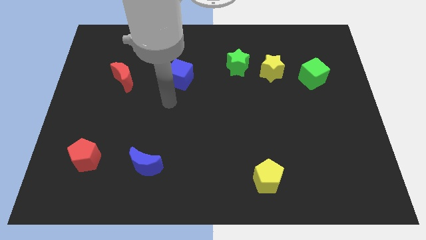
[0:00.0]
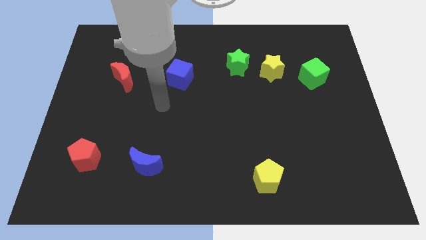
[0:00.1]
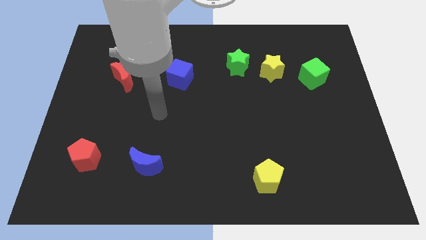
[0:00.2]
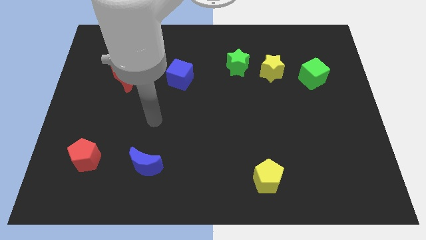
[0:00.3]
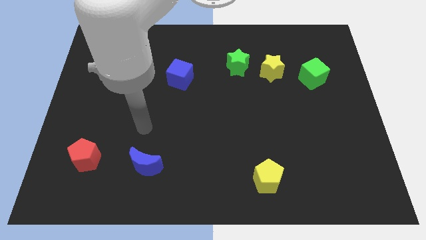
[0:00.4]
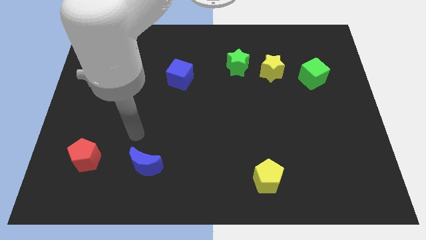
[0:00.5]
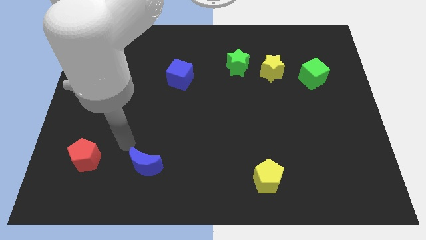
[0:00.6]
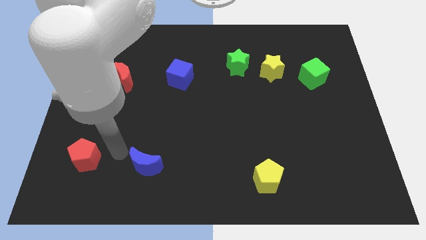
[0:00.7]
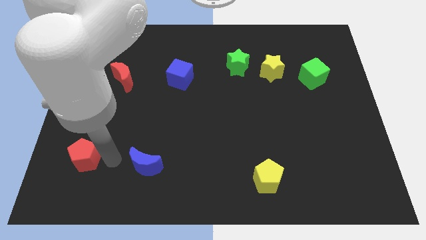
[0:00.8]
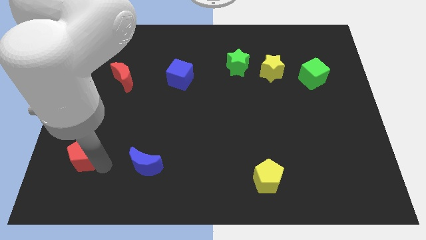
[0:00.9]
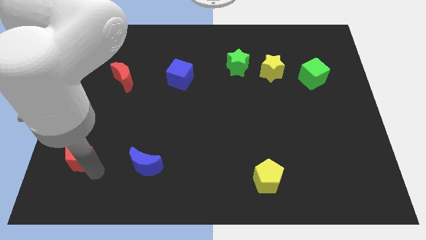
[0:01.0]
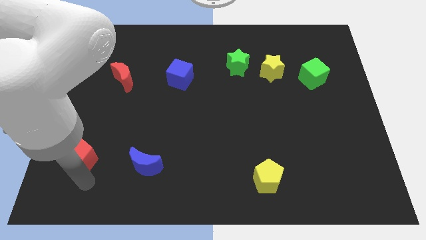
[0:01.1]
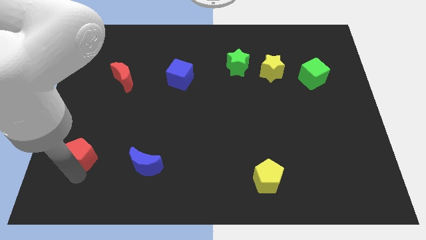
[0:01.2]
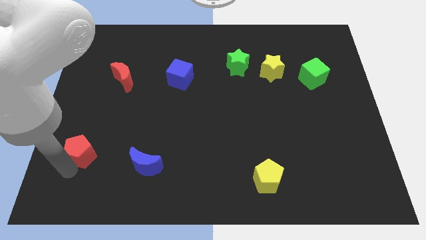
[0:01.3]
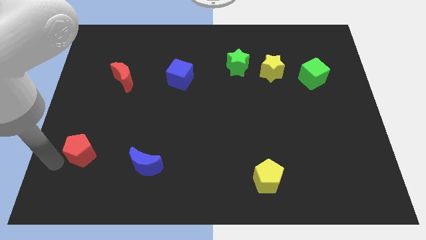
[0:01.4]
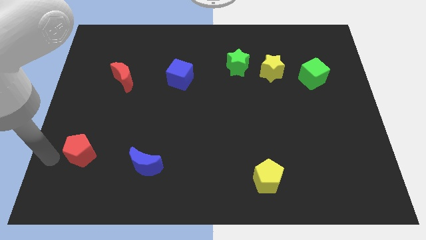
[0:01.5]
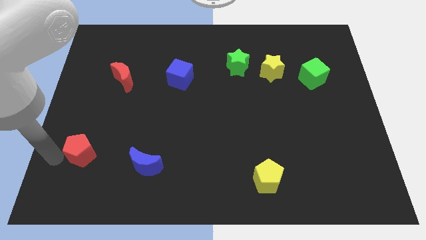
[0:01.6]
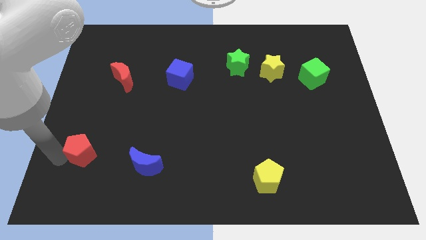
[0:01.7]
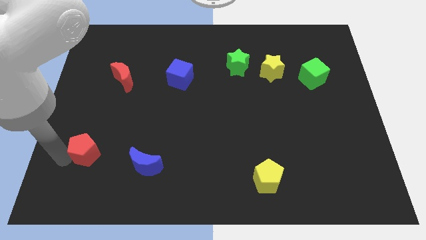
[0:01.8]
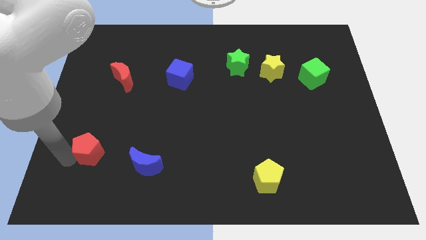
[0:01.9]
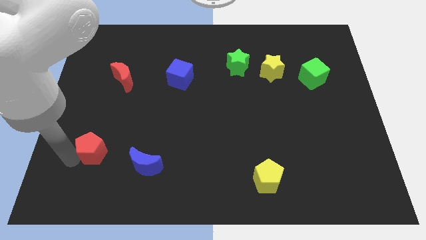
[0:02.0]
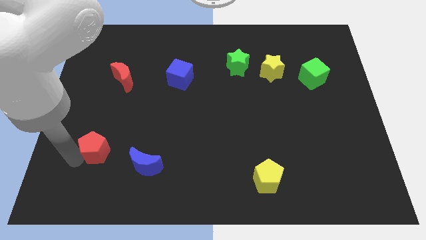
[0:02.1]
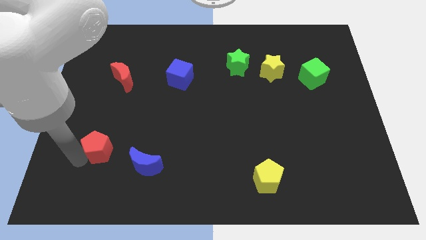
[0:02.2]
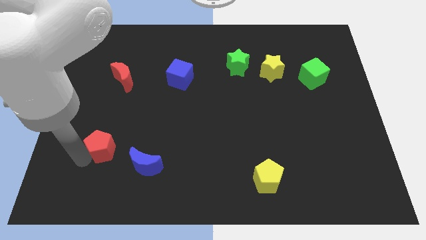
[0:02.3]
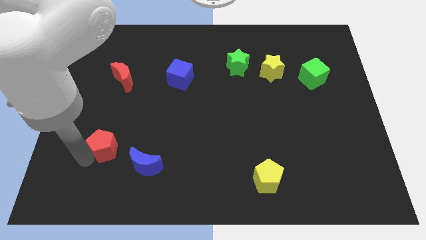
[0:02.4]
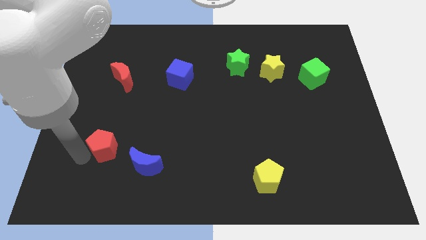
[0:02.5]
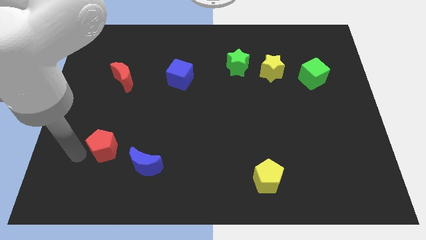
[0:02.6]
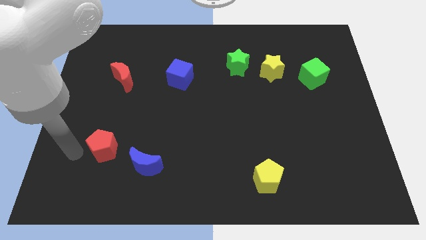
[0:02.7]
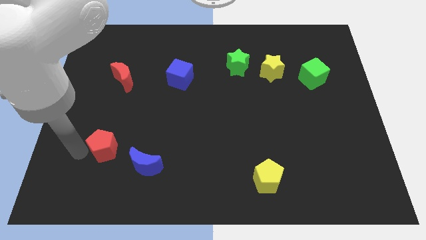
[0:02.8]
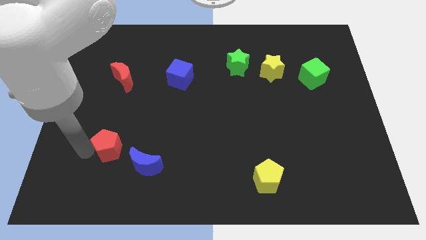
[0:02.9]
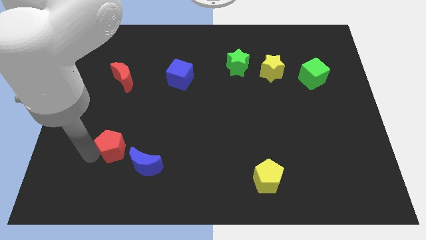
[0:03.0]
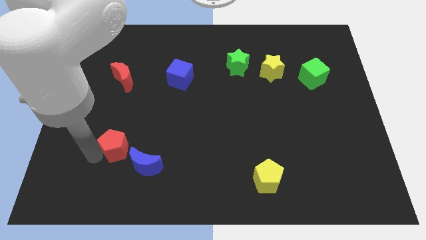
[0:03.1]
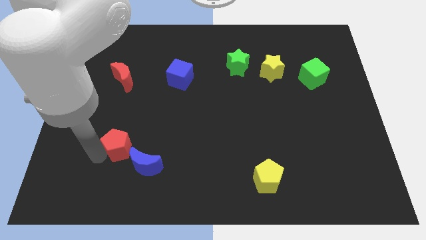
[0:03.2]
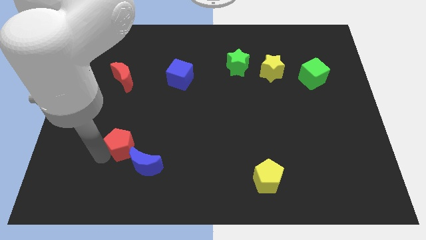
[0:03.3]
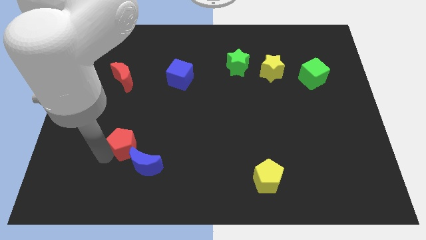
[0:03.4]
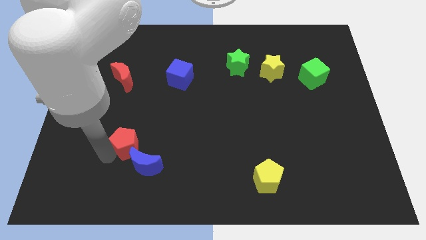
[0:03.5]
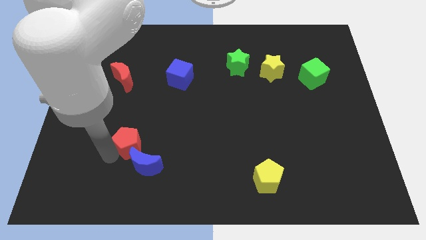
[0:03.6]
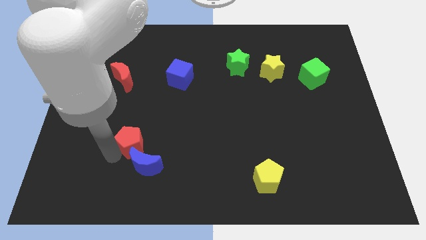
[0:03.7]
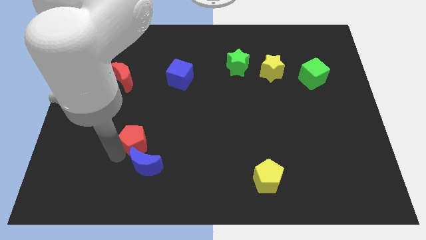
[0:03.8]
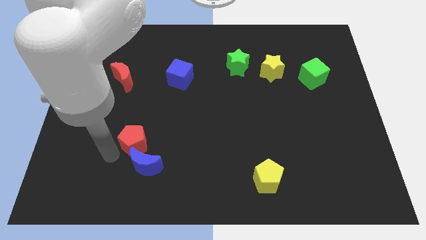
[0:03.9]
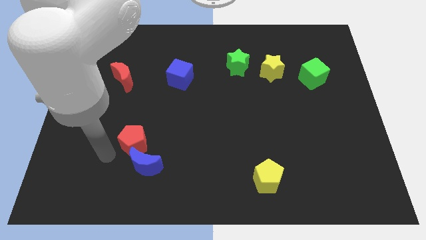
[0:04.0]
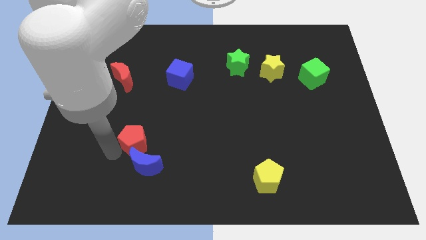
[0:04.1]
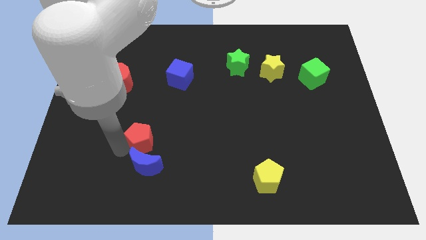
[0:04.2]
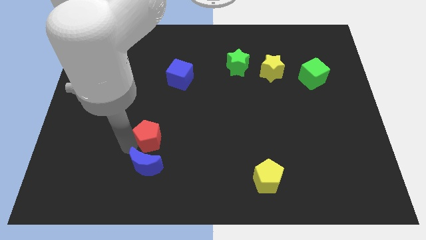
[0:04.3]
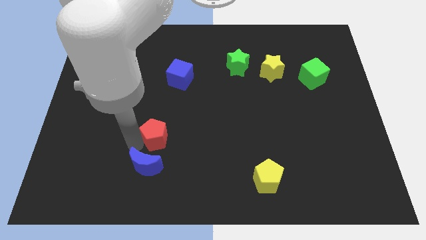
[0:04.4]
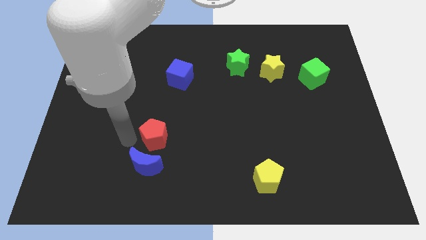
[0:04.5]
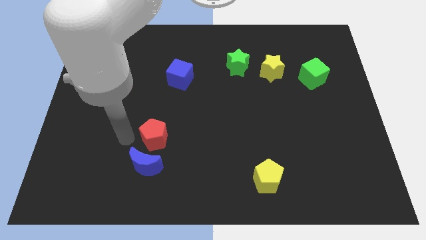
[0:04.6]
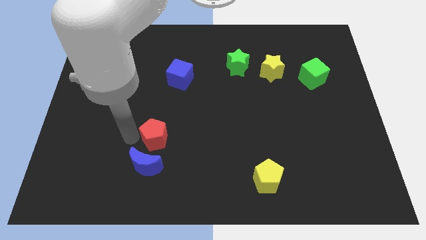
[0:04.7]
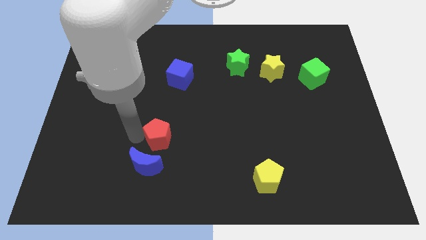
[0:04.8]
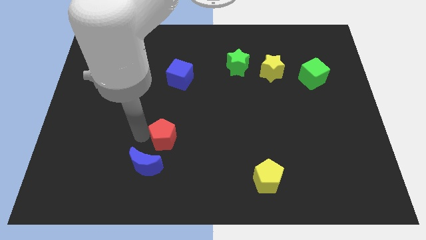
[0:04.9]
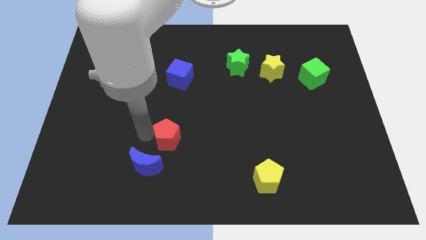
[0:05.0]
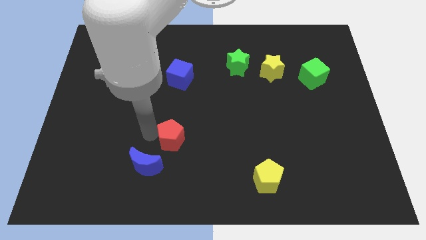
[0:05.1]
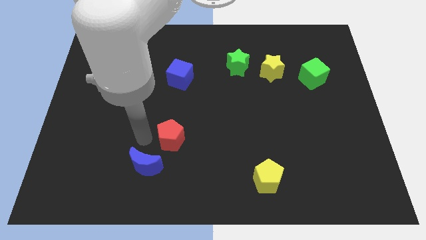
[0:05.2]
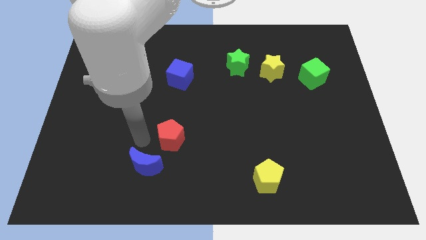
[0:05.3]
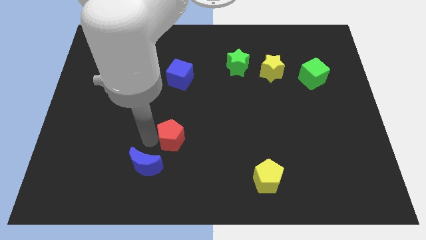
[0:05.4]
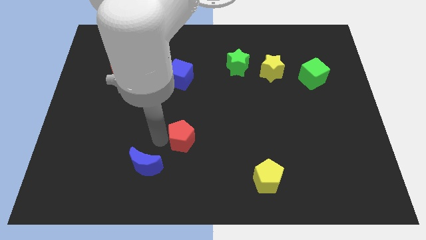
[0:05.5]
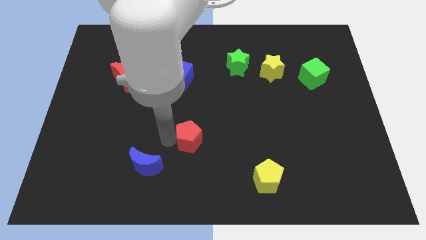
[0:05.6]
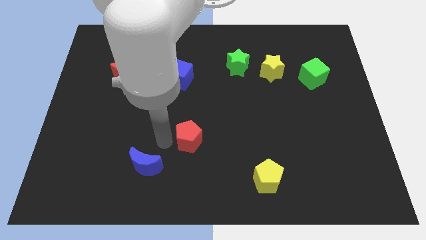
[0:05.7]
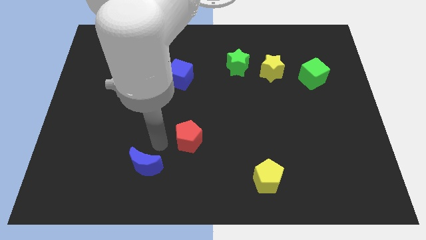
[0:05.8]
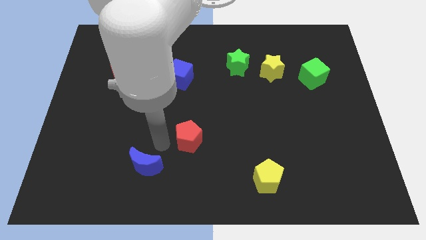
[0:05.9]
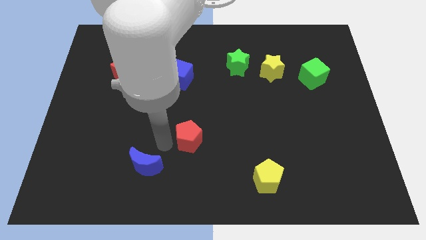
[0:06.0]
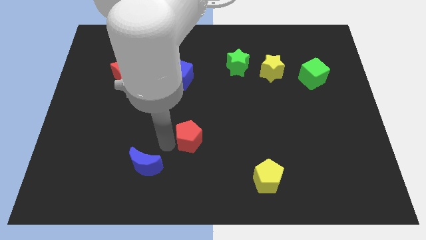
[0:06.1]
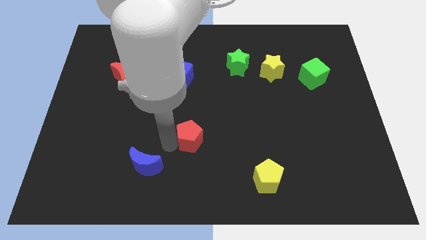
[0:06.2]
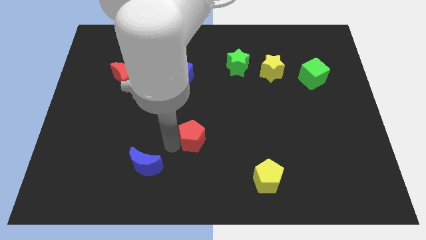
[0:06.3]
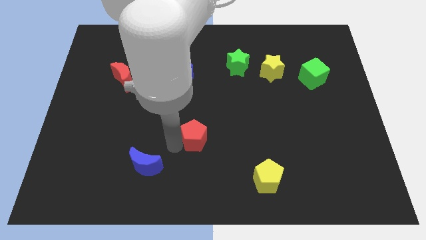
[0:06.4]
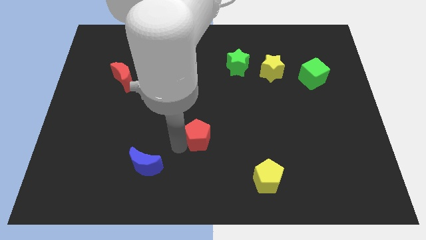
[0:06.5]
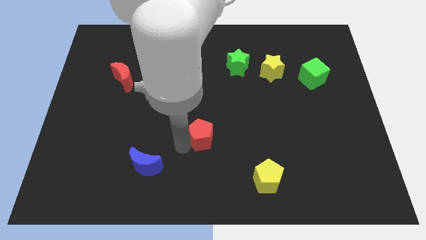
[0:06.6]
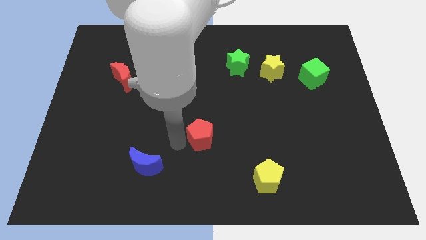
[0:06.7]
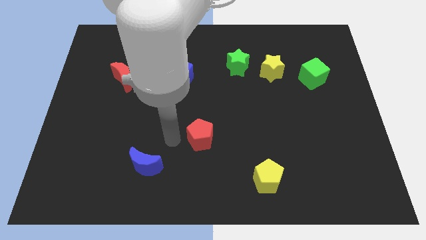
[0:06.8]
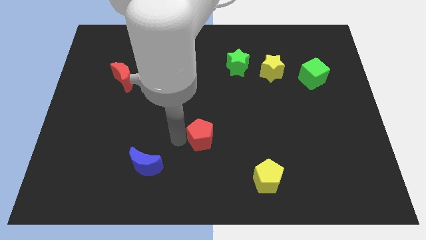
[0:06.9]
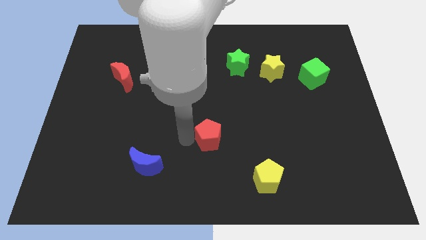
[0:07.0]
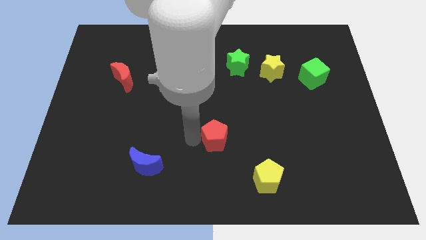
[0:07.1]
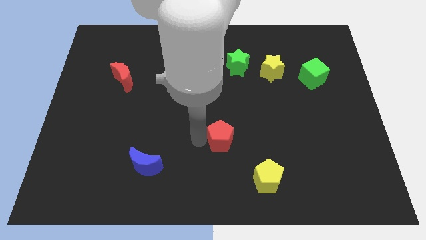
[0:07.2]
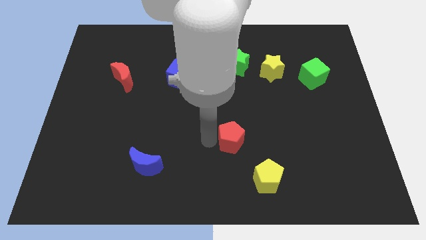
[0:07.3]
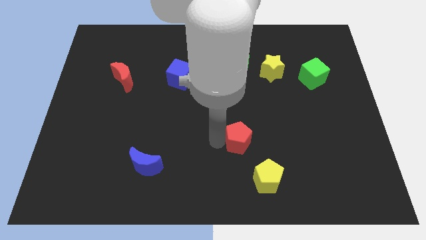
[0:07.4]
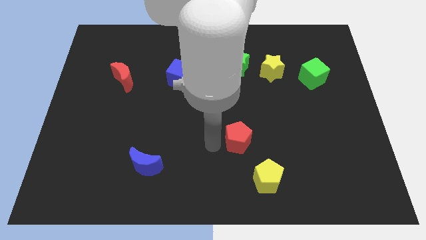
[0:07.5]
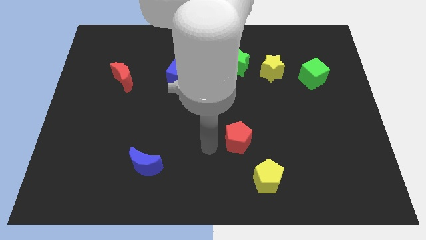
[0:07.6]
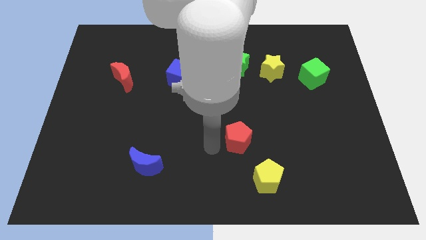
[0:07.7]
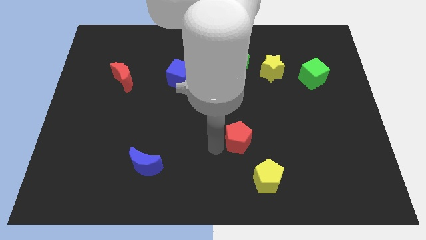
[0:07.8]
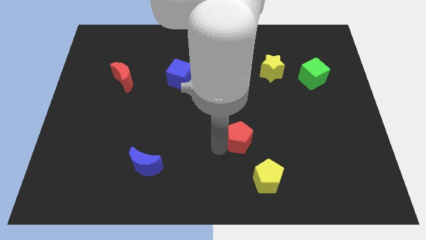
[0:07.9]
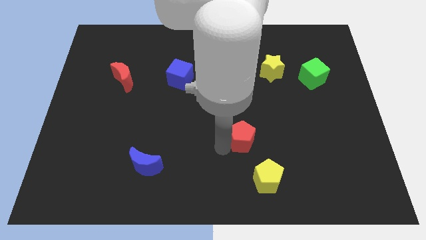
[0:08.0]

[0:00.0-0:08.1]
put the red pentagon above the yellow pentagon
